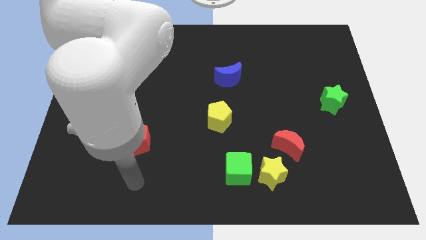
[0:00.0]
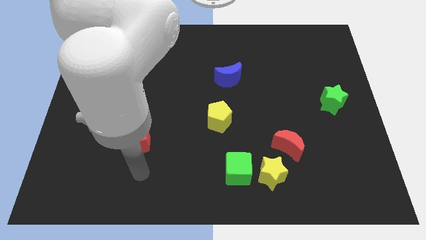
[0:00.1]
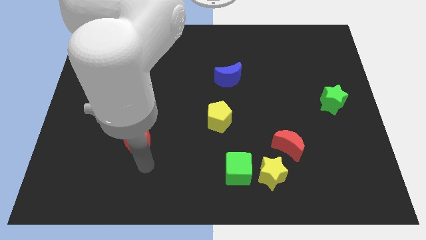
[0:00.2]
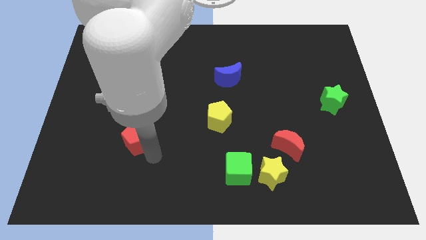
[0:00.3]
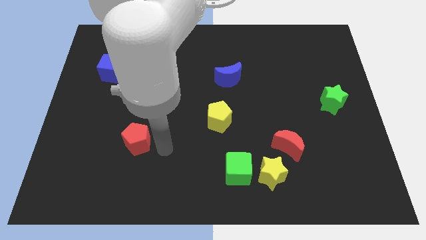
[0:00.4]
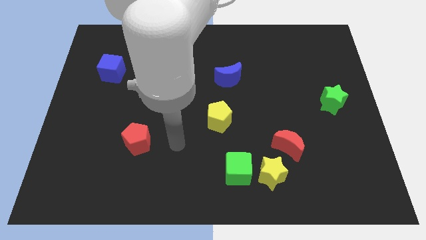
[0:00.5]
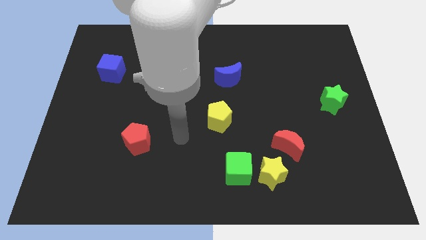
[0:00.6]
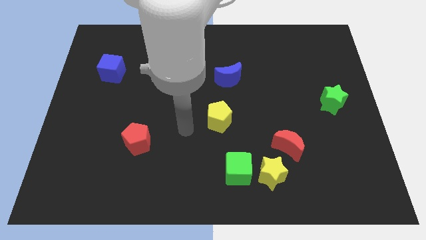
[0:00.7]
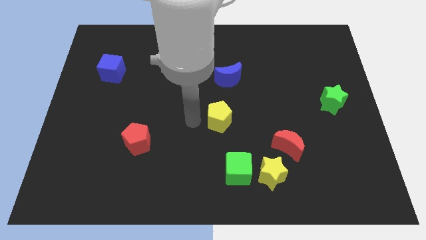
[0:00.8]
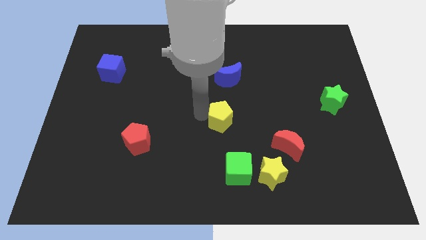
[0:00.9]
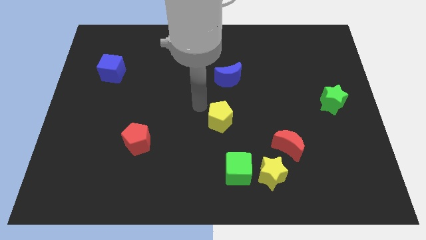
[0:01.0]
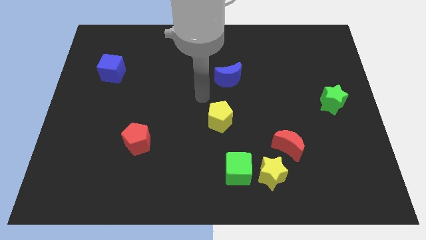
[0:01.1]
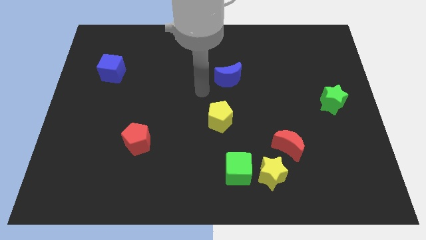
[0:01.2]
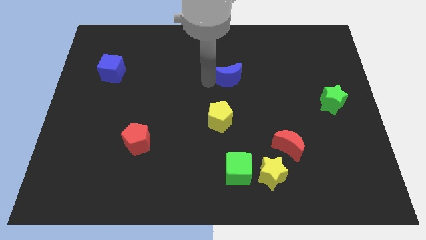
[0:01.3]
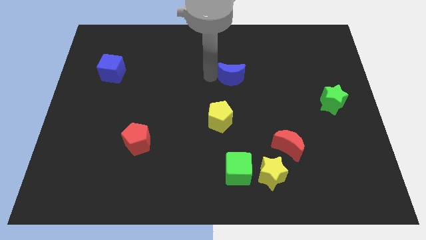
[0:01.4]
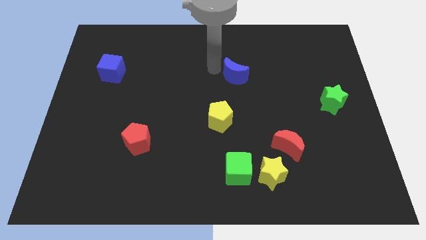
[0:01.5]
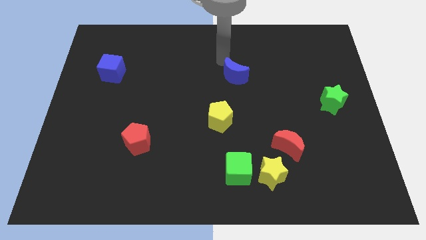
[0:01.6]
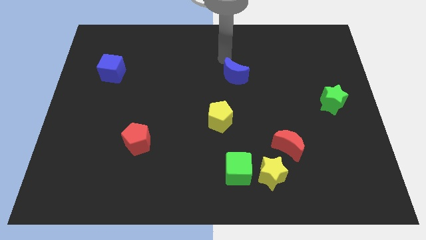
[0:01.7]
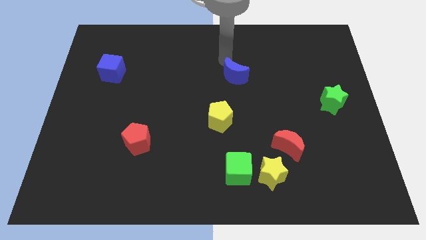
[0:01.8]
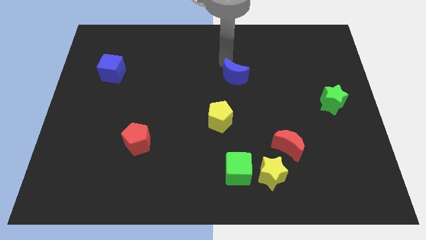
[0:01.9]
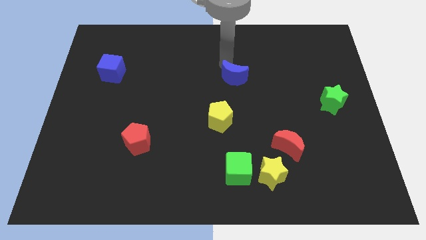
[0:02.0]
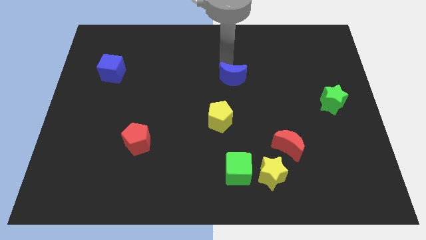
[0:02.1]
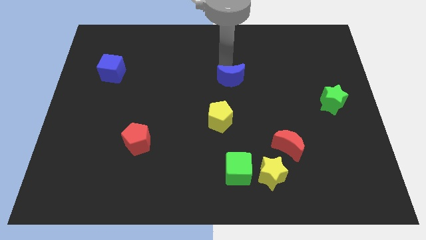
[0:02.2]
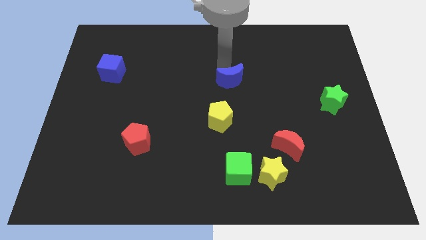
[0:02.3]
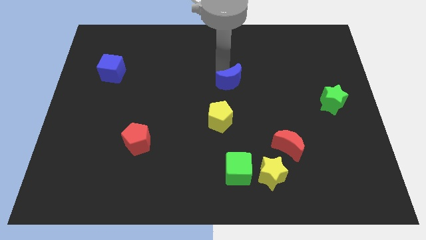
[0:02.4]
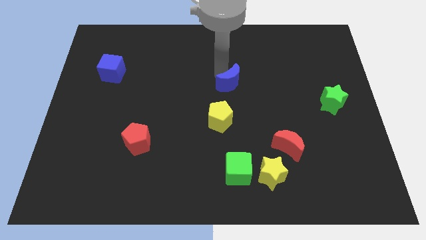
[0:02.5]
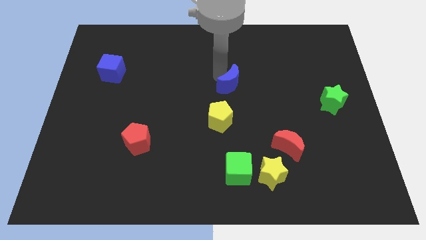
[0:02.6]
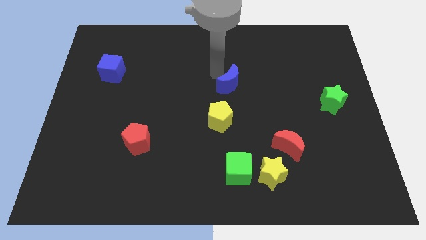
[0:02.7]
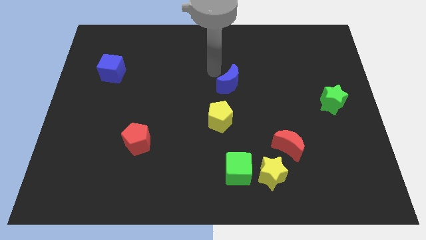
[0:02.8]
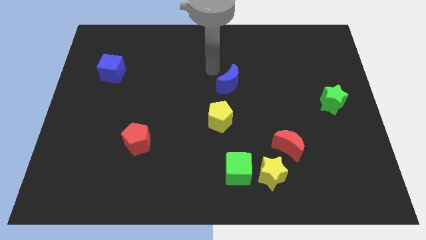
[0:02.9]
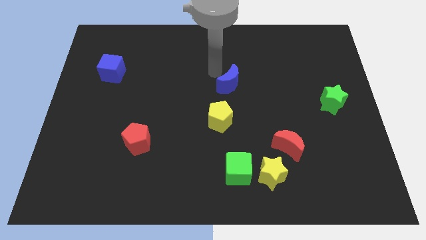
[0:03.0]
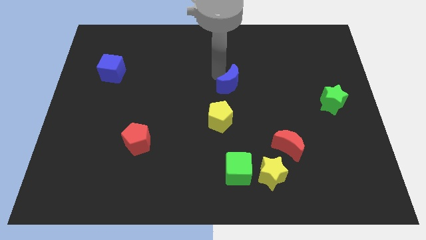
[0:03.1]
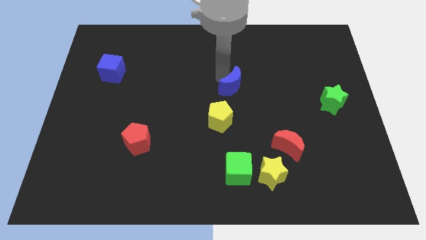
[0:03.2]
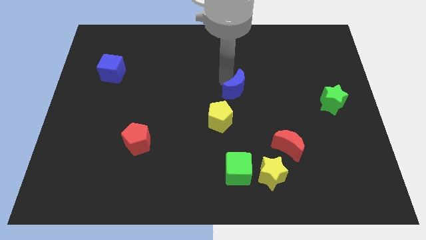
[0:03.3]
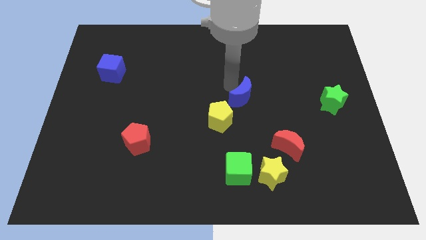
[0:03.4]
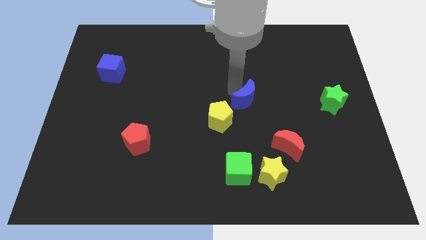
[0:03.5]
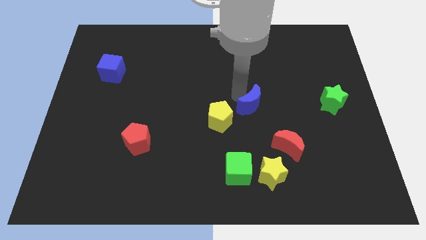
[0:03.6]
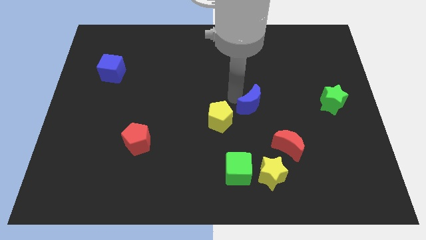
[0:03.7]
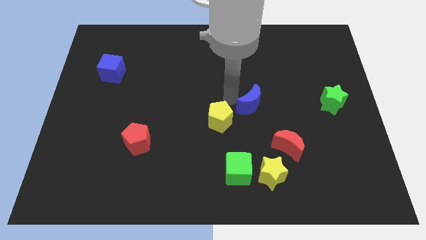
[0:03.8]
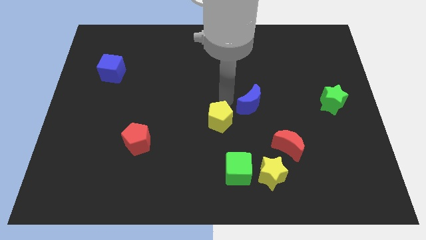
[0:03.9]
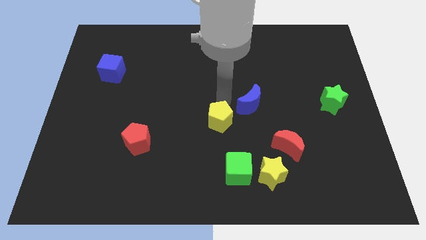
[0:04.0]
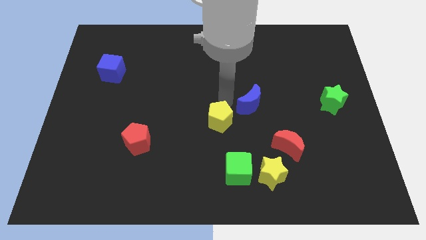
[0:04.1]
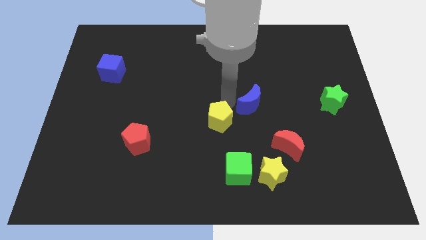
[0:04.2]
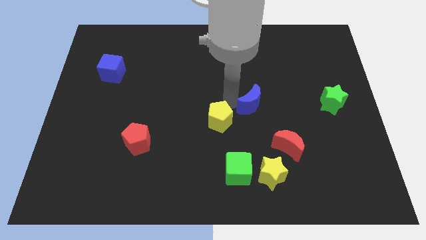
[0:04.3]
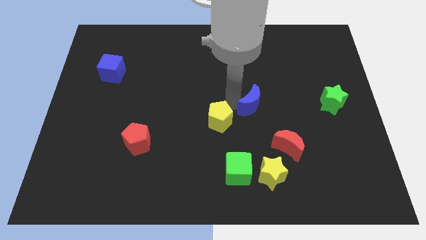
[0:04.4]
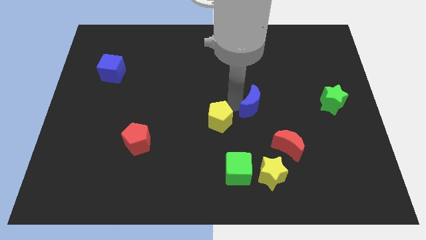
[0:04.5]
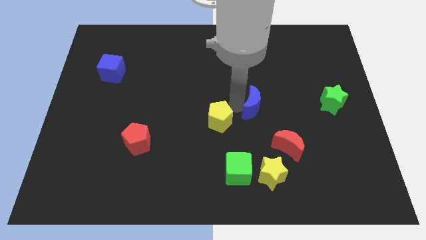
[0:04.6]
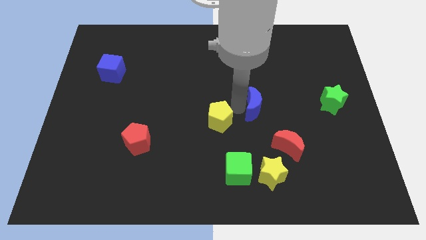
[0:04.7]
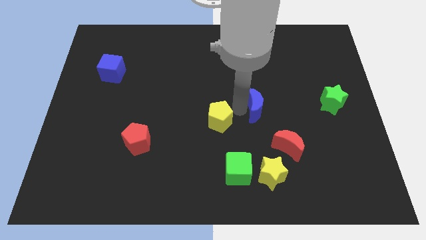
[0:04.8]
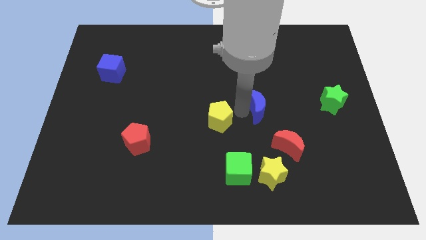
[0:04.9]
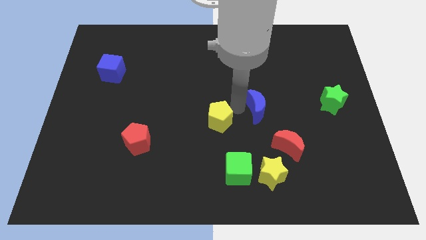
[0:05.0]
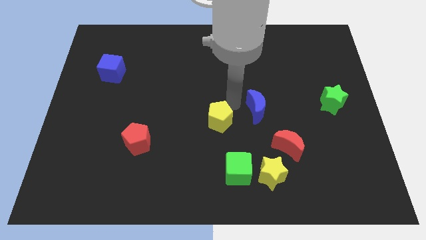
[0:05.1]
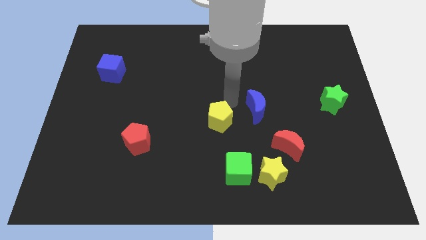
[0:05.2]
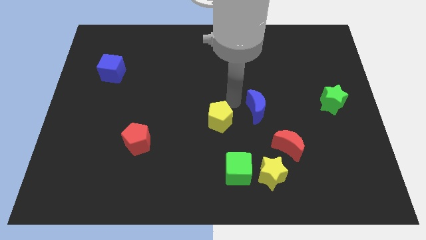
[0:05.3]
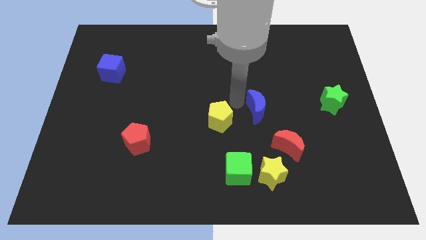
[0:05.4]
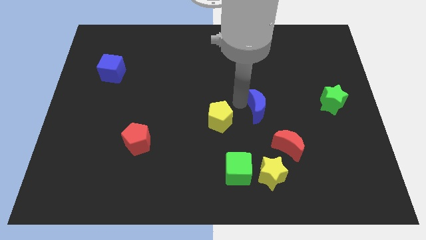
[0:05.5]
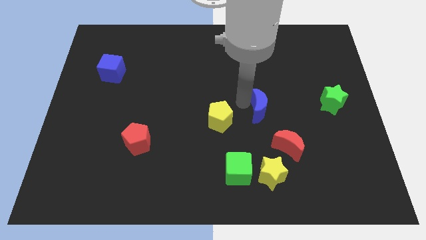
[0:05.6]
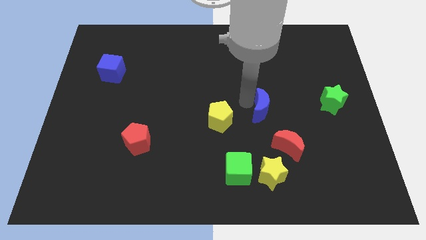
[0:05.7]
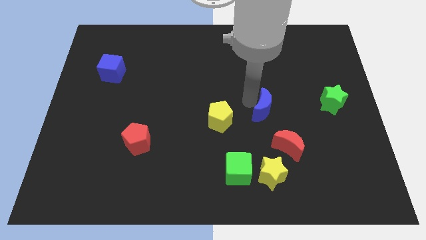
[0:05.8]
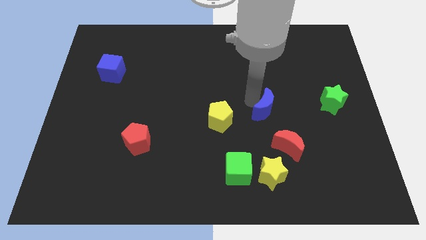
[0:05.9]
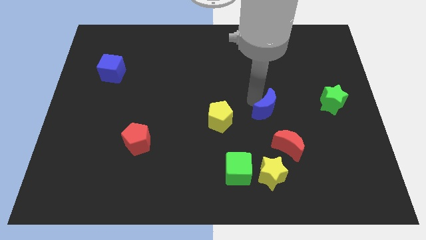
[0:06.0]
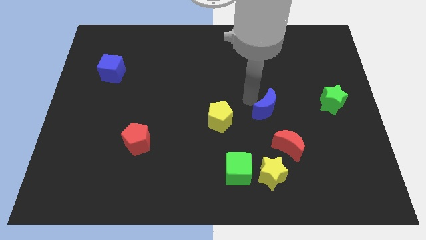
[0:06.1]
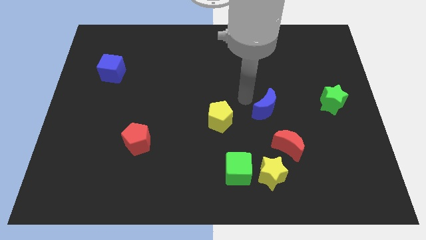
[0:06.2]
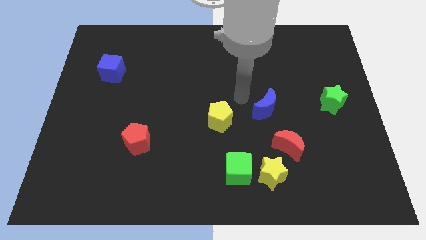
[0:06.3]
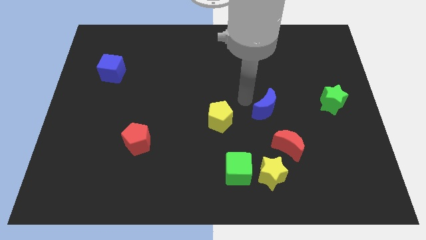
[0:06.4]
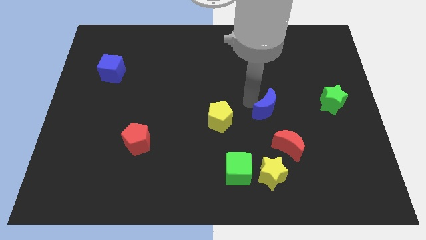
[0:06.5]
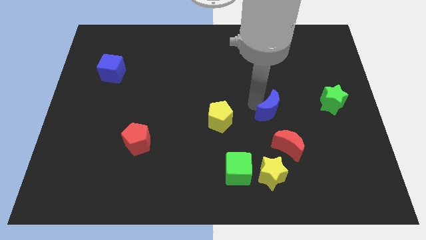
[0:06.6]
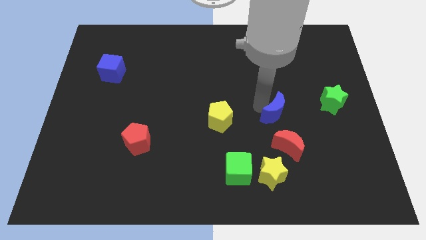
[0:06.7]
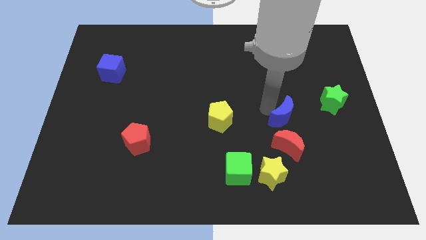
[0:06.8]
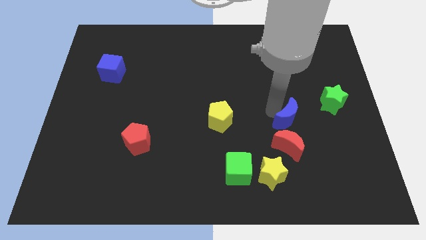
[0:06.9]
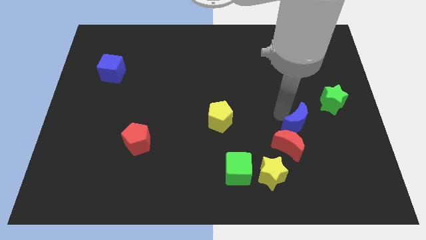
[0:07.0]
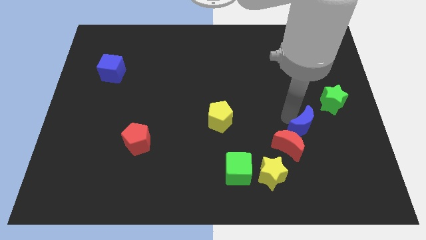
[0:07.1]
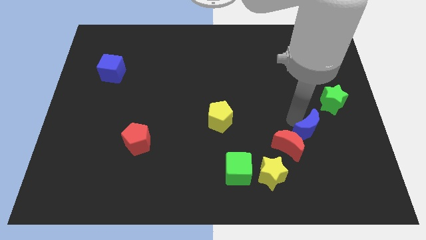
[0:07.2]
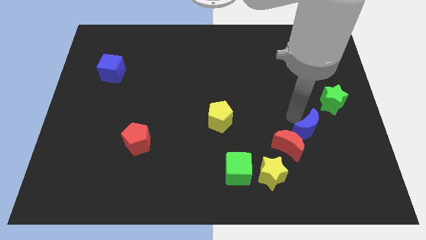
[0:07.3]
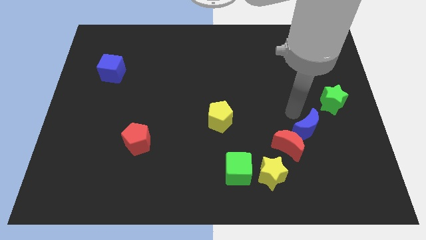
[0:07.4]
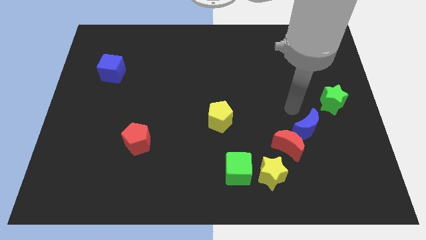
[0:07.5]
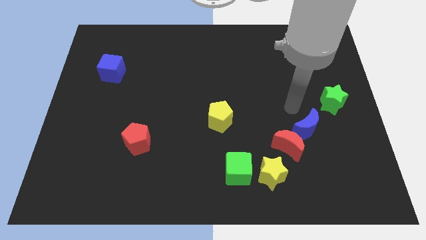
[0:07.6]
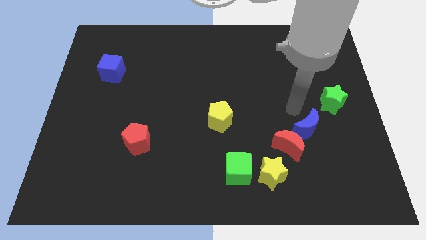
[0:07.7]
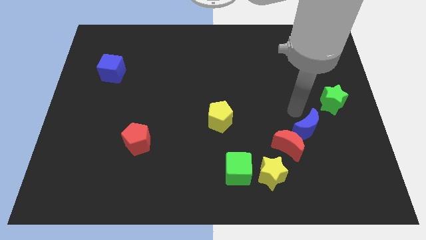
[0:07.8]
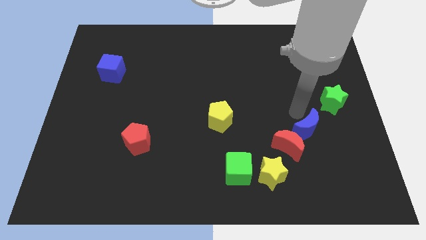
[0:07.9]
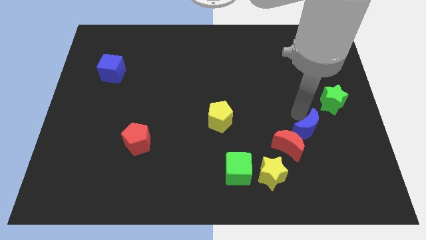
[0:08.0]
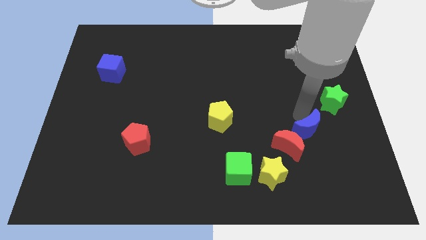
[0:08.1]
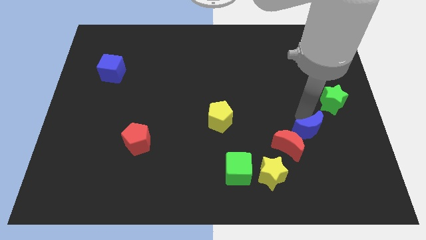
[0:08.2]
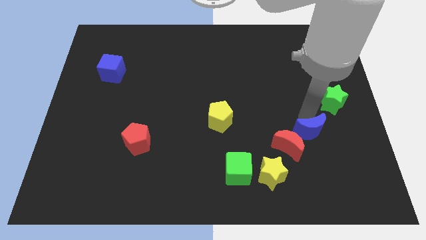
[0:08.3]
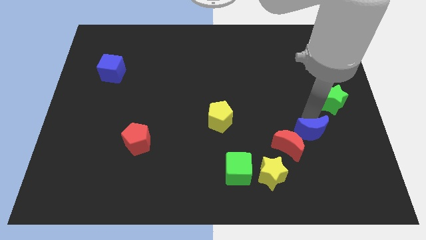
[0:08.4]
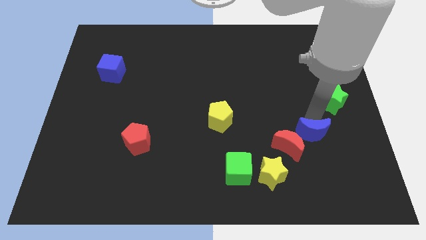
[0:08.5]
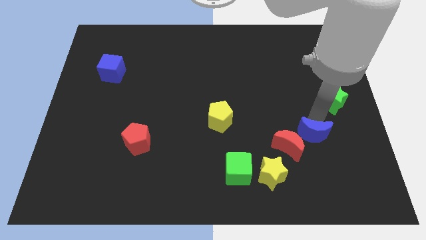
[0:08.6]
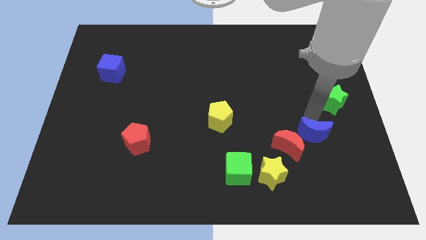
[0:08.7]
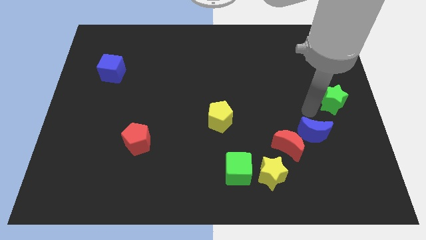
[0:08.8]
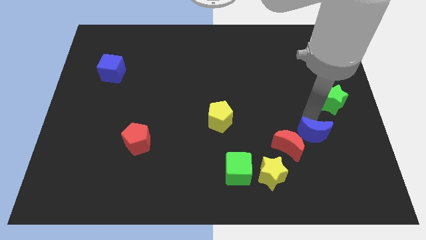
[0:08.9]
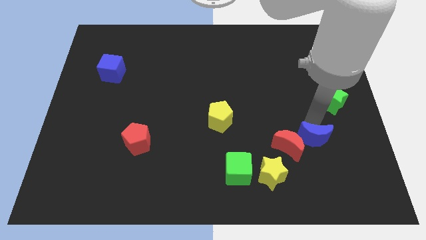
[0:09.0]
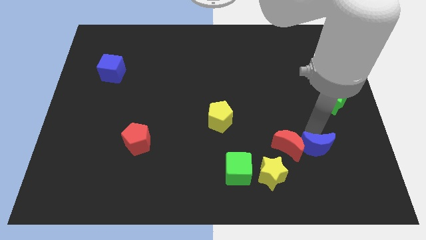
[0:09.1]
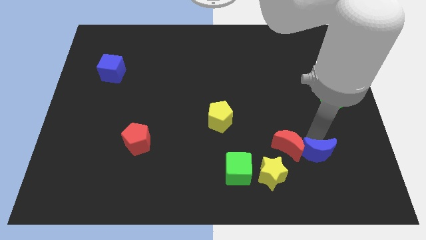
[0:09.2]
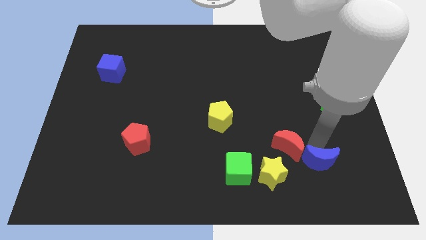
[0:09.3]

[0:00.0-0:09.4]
move the blue moon to the right side of the yellow star
